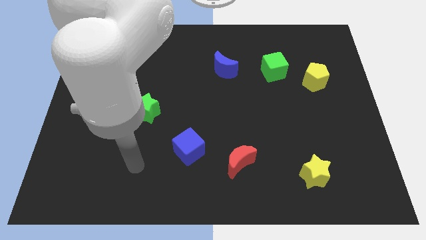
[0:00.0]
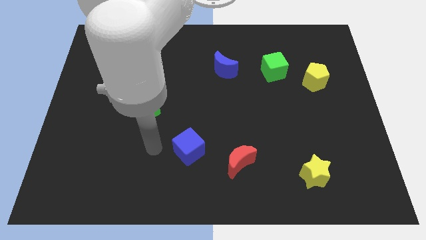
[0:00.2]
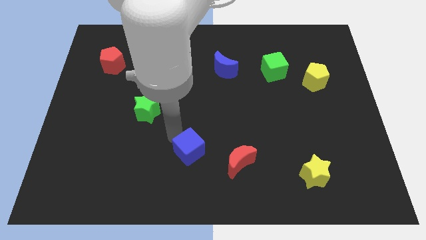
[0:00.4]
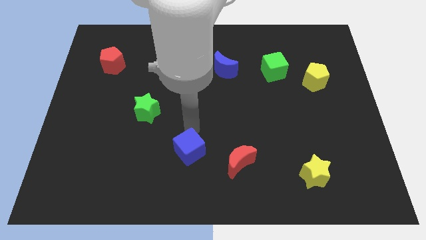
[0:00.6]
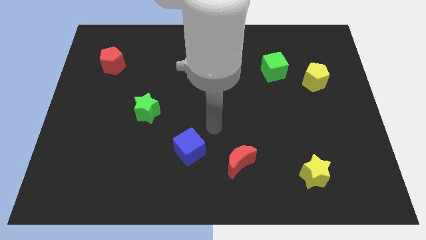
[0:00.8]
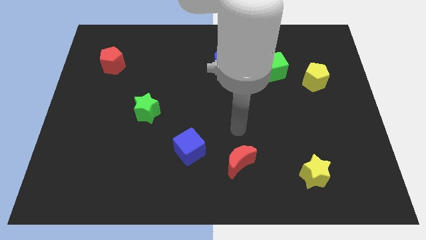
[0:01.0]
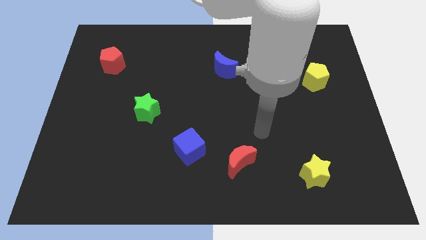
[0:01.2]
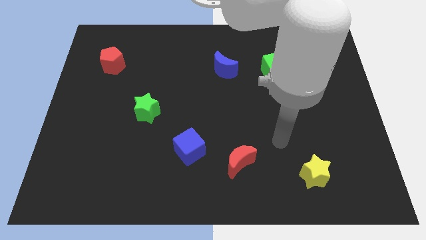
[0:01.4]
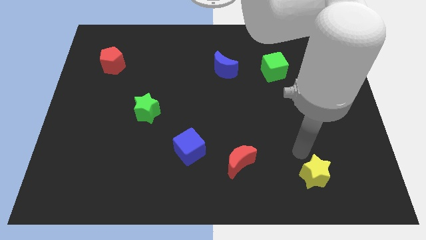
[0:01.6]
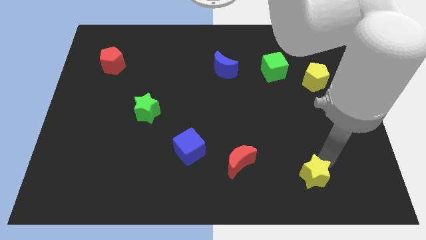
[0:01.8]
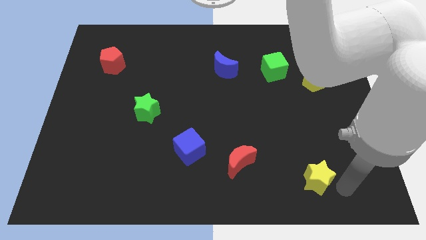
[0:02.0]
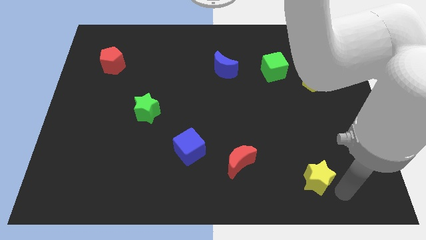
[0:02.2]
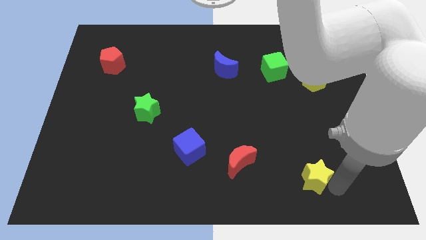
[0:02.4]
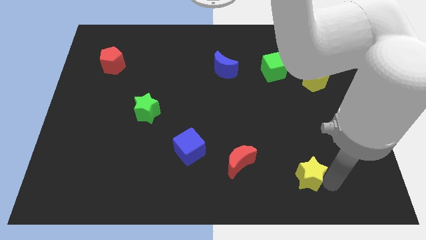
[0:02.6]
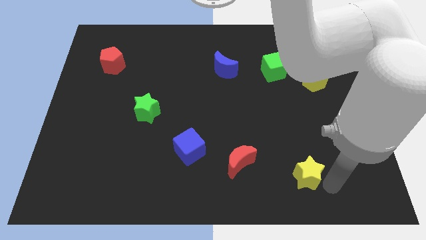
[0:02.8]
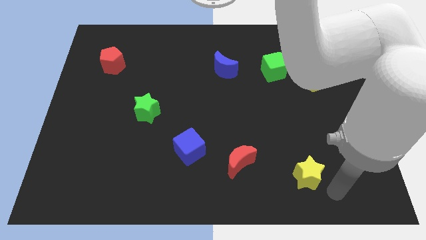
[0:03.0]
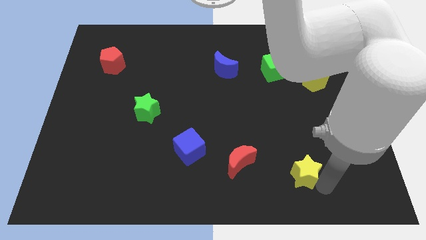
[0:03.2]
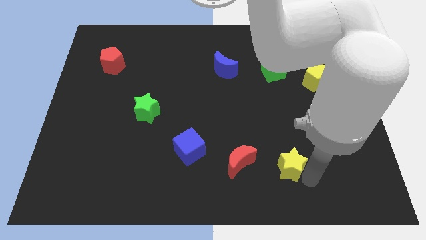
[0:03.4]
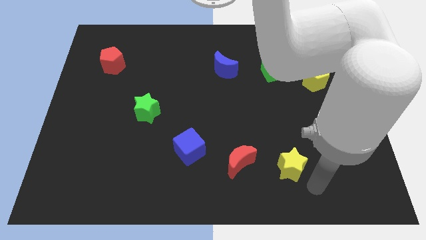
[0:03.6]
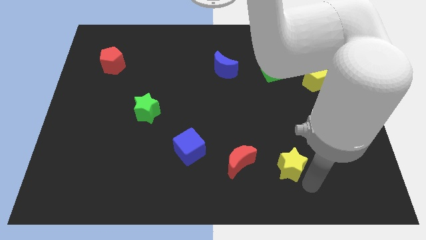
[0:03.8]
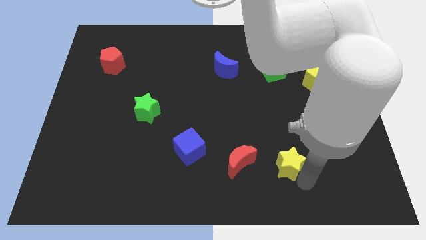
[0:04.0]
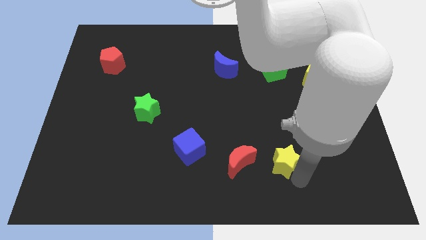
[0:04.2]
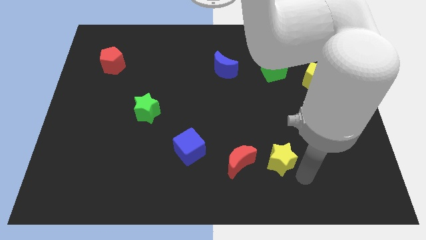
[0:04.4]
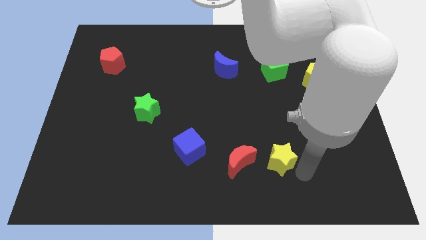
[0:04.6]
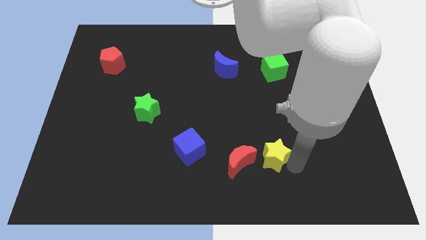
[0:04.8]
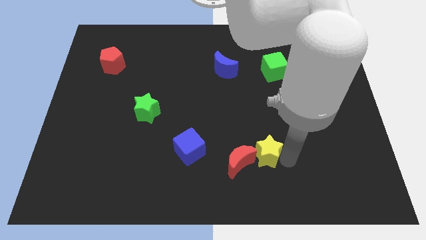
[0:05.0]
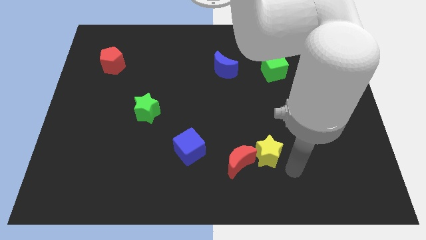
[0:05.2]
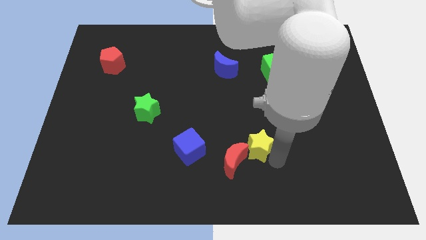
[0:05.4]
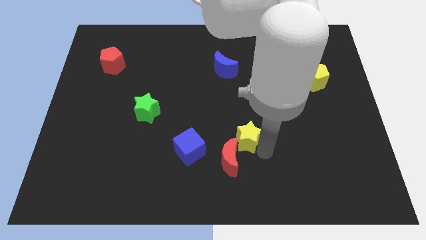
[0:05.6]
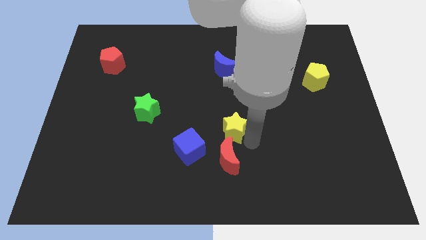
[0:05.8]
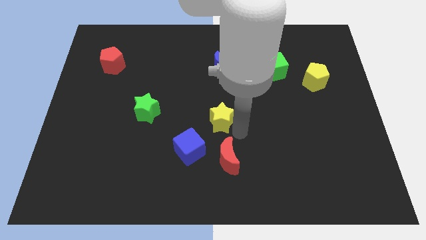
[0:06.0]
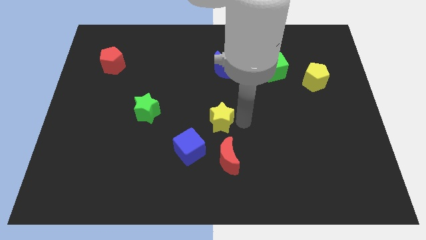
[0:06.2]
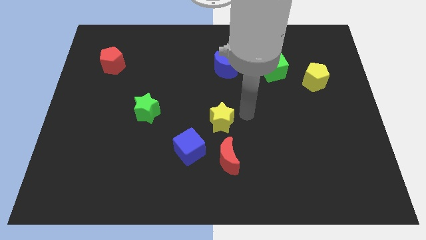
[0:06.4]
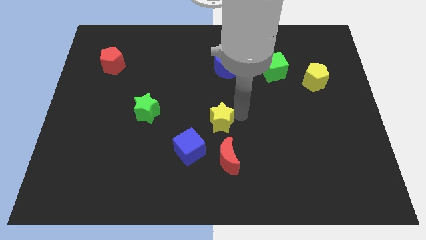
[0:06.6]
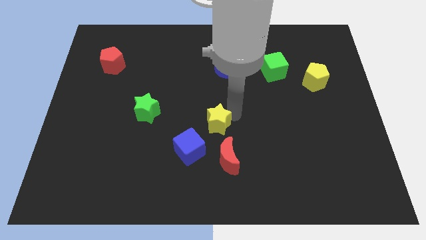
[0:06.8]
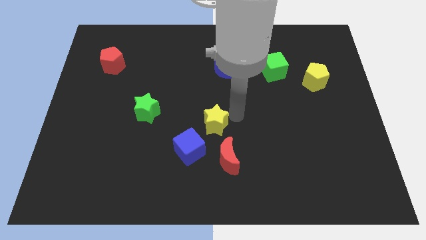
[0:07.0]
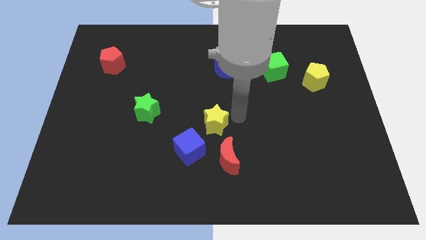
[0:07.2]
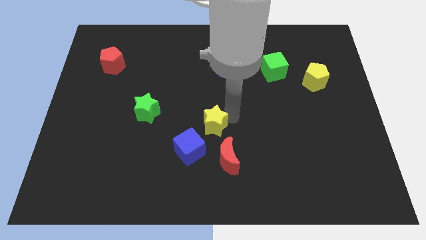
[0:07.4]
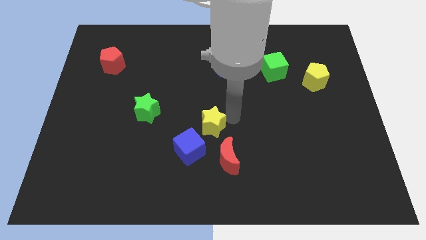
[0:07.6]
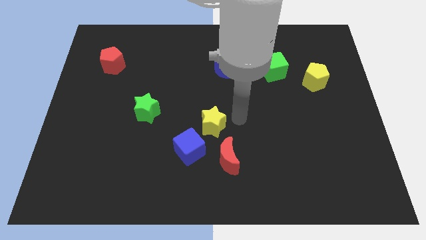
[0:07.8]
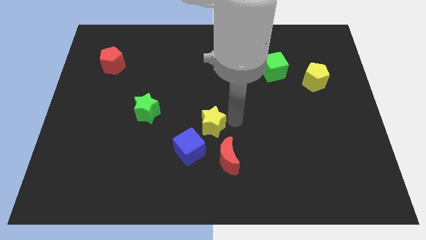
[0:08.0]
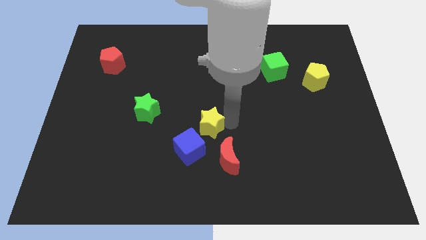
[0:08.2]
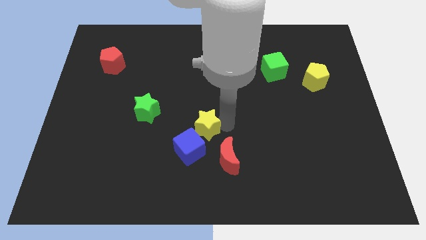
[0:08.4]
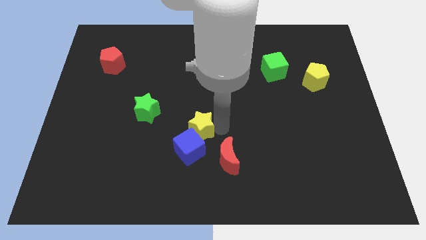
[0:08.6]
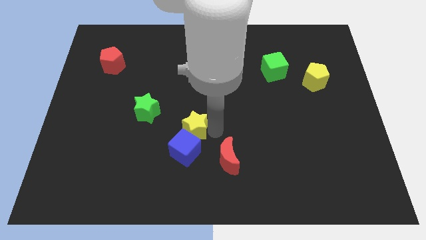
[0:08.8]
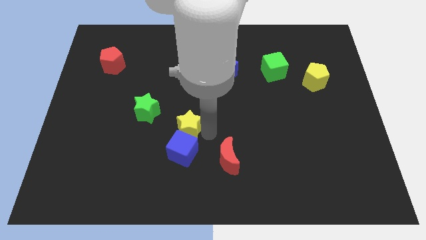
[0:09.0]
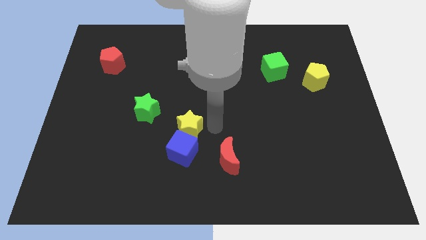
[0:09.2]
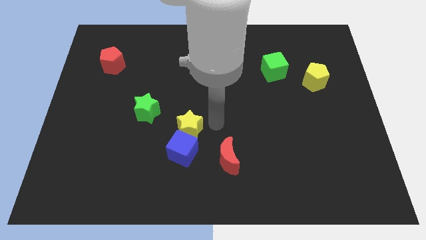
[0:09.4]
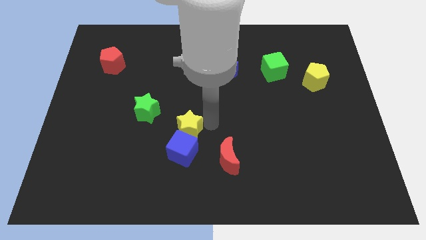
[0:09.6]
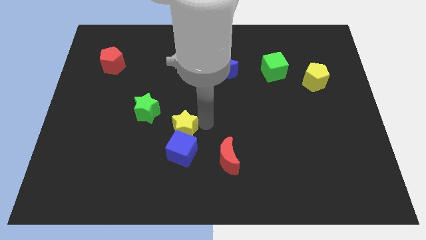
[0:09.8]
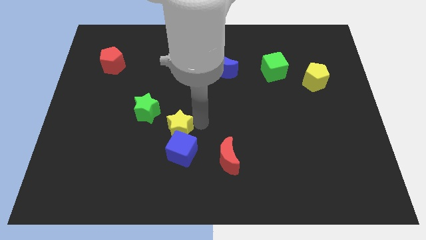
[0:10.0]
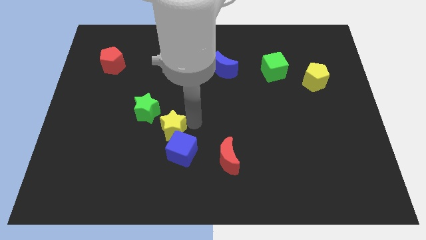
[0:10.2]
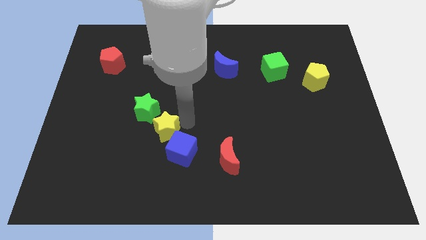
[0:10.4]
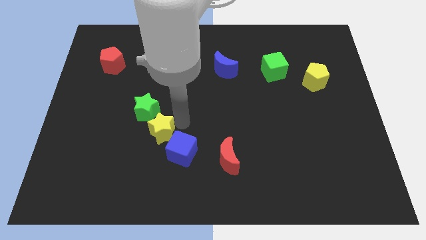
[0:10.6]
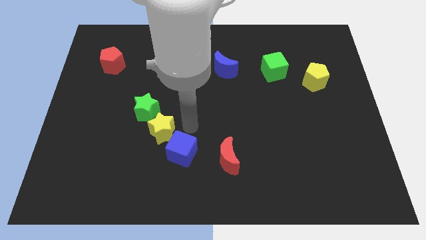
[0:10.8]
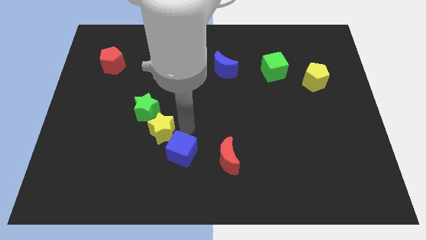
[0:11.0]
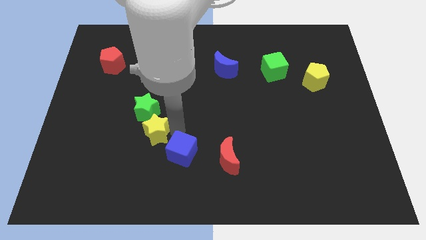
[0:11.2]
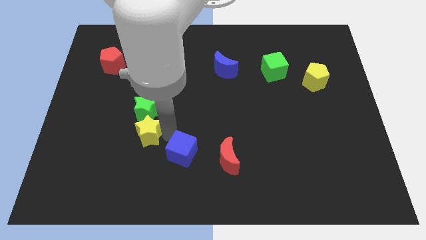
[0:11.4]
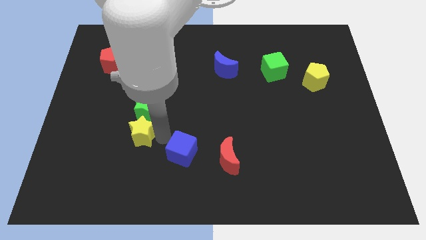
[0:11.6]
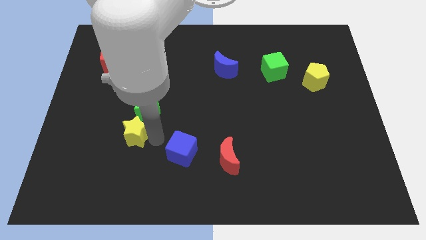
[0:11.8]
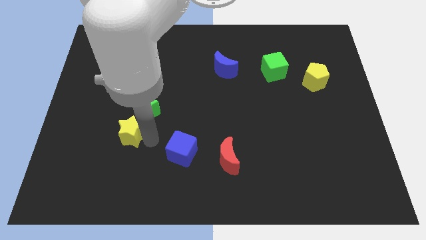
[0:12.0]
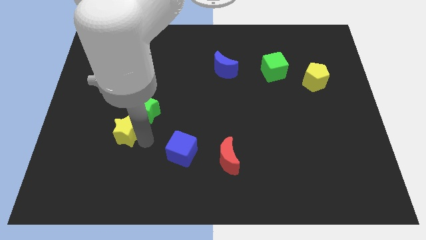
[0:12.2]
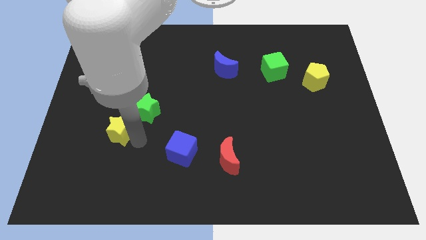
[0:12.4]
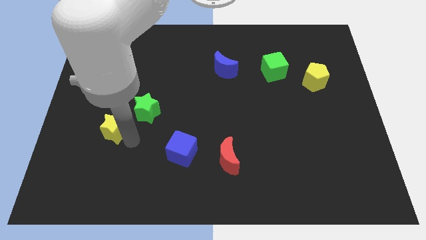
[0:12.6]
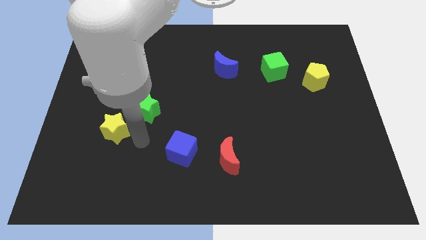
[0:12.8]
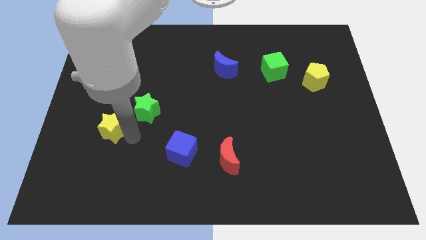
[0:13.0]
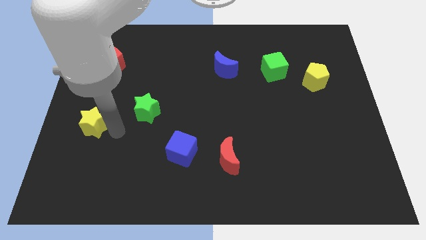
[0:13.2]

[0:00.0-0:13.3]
push the yellow star to the center left
